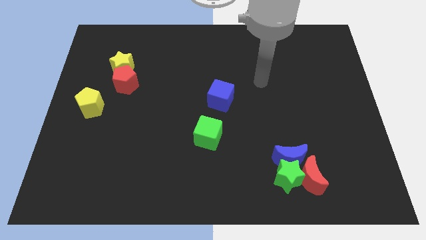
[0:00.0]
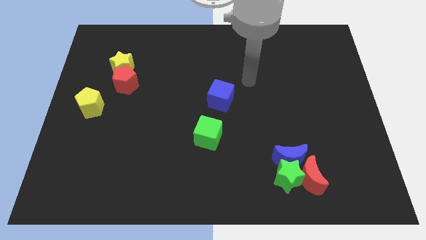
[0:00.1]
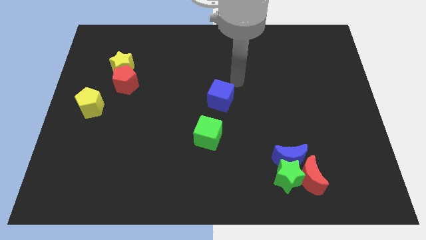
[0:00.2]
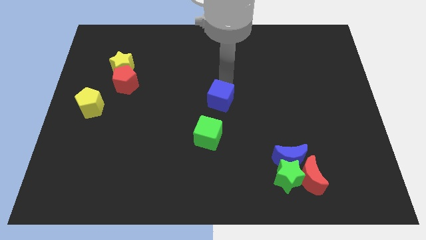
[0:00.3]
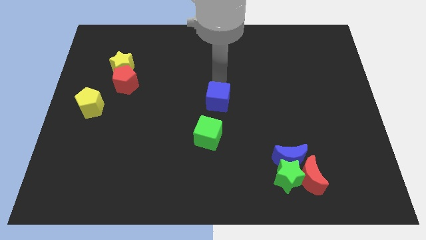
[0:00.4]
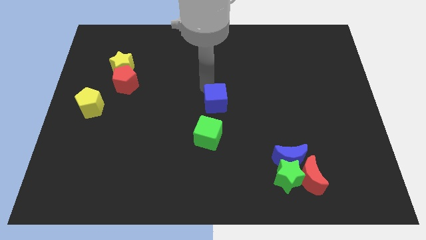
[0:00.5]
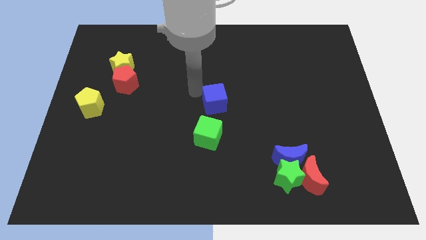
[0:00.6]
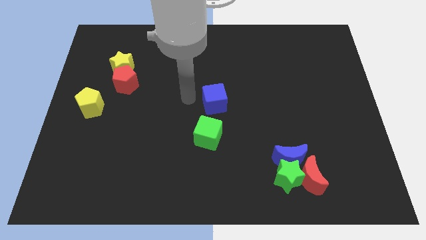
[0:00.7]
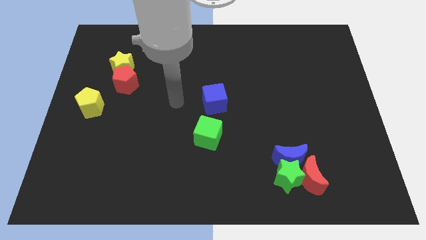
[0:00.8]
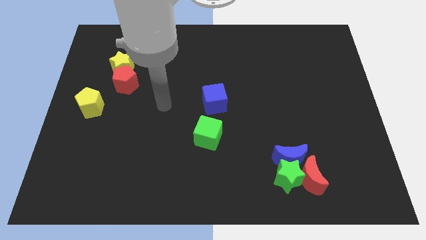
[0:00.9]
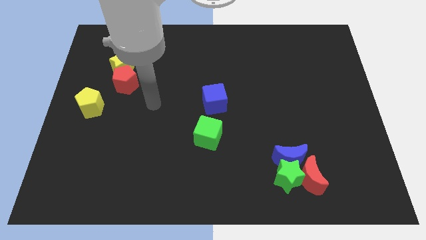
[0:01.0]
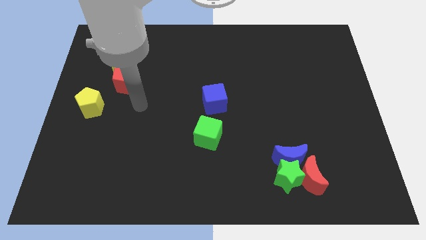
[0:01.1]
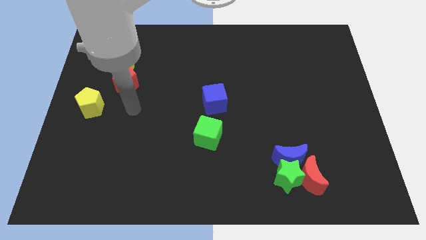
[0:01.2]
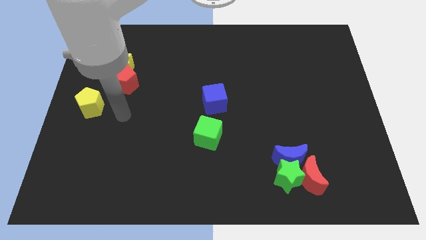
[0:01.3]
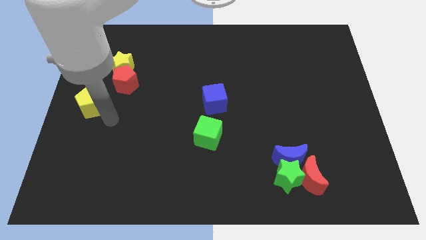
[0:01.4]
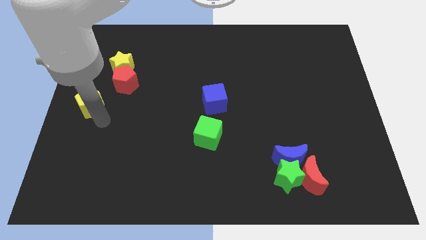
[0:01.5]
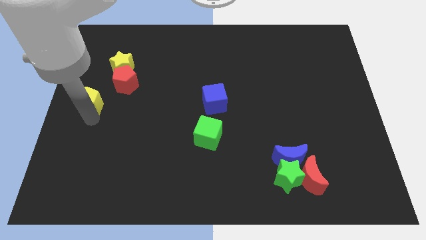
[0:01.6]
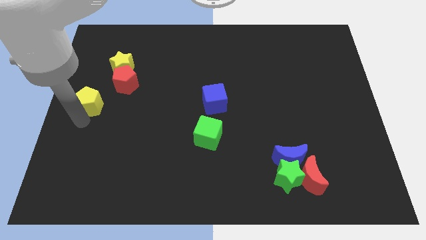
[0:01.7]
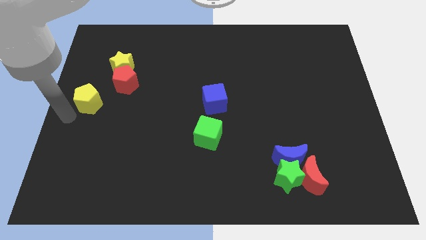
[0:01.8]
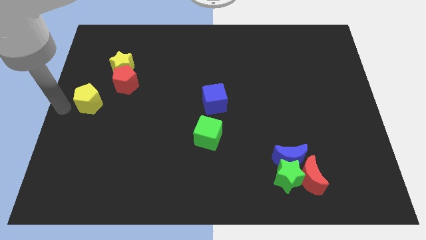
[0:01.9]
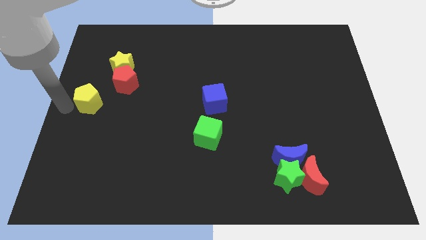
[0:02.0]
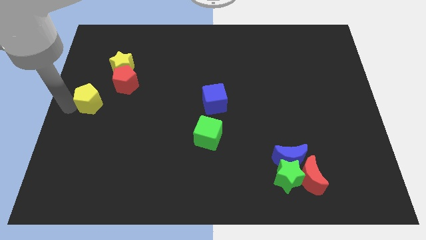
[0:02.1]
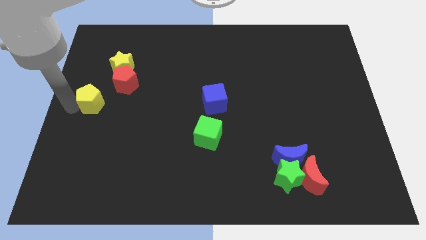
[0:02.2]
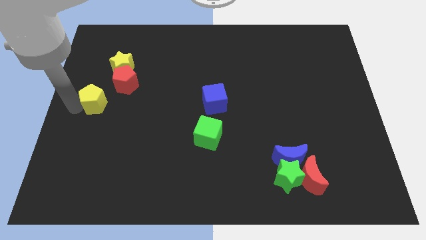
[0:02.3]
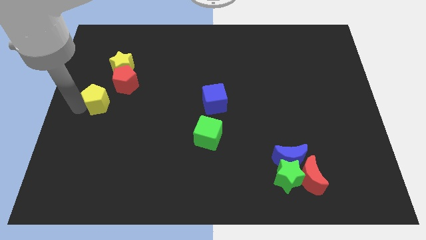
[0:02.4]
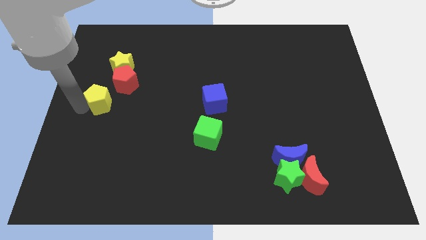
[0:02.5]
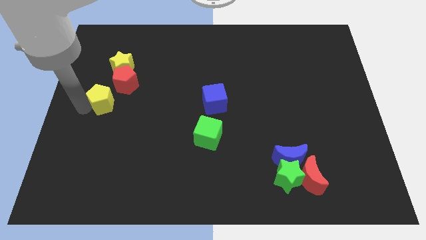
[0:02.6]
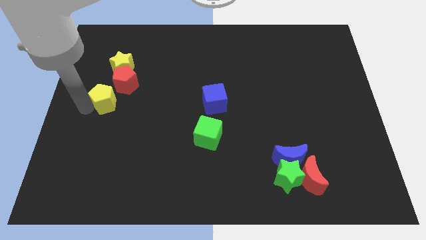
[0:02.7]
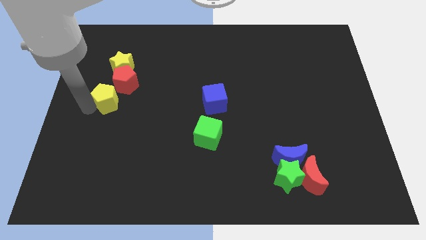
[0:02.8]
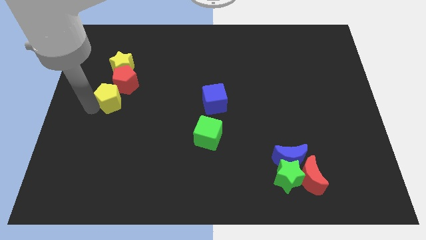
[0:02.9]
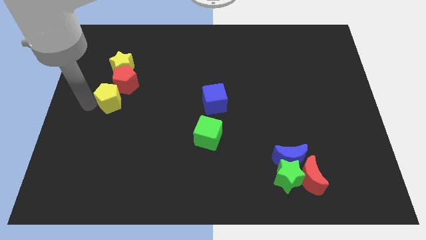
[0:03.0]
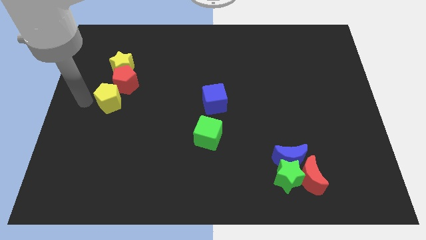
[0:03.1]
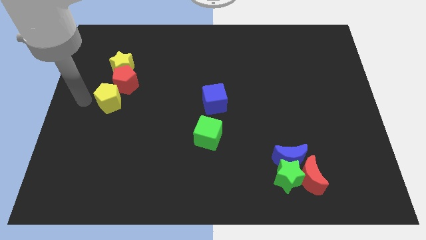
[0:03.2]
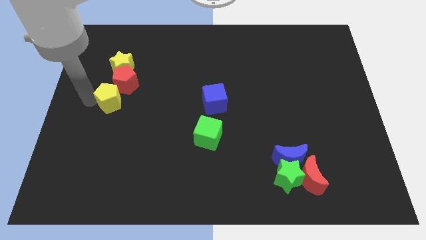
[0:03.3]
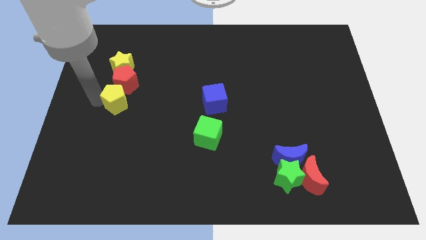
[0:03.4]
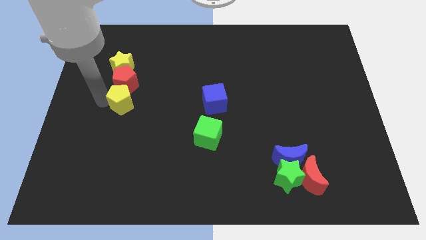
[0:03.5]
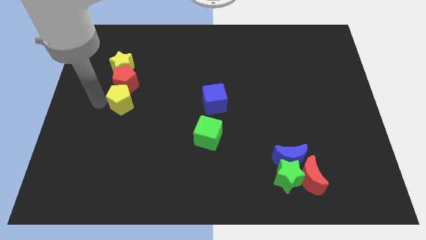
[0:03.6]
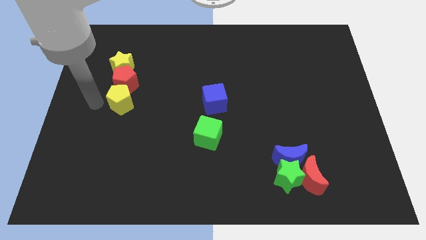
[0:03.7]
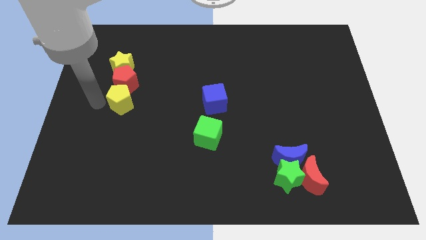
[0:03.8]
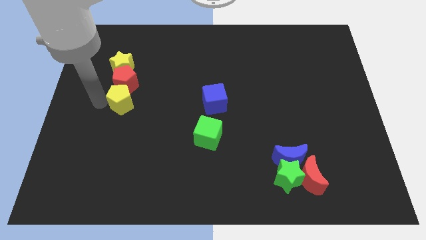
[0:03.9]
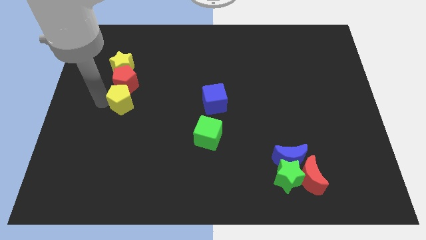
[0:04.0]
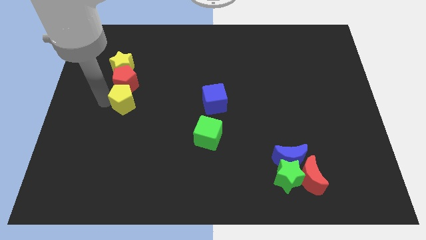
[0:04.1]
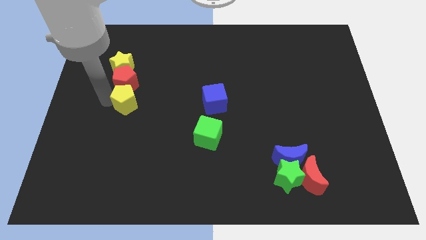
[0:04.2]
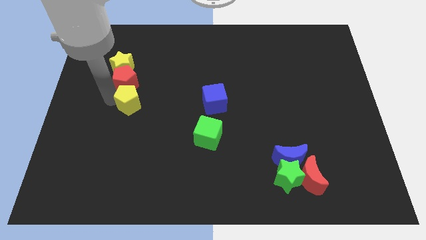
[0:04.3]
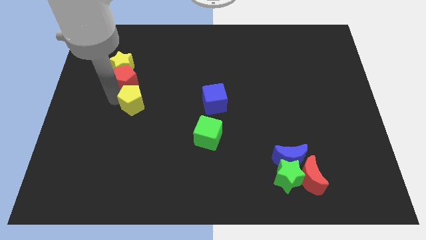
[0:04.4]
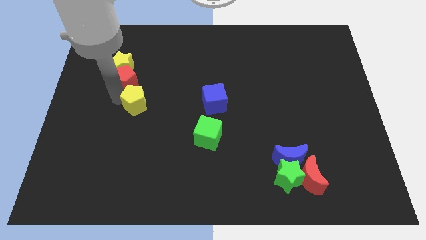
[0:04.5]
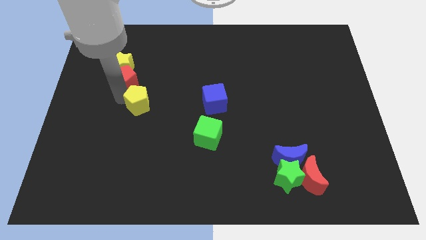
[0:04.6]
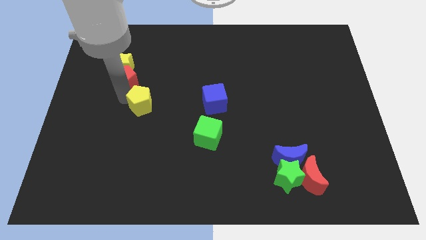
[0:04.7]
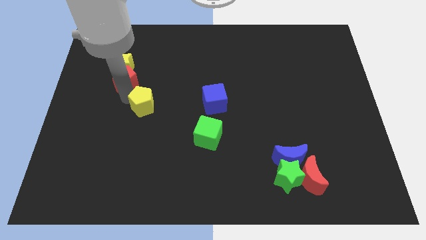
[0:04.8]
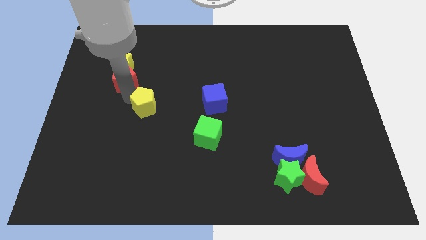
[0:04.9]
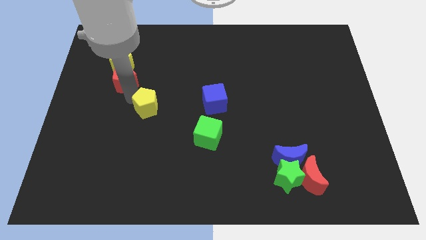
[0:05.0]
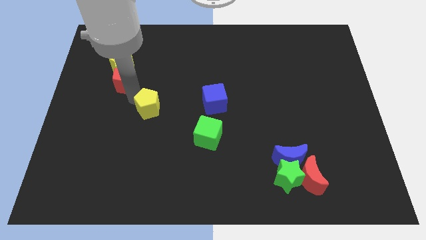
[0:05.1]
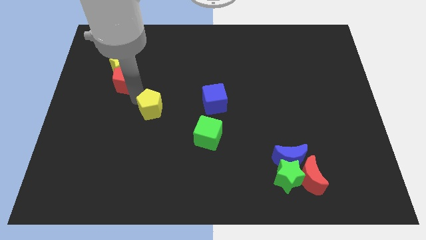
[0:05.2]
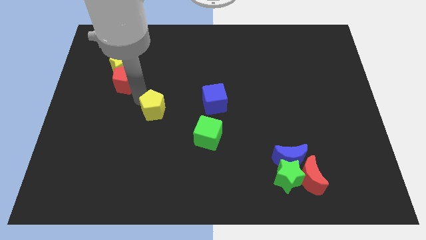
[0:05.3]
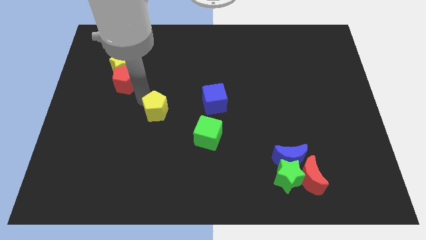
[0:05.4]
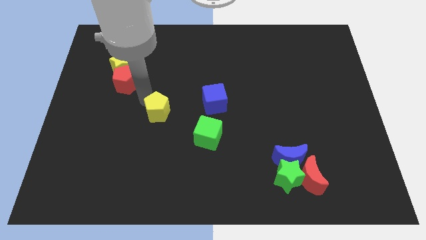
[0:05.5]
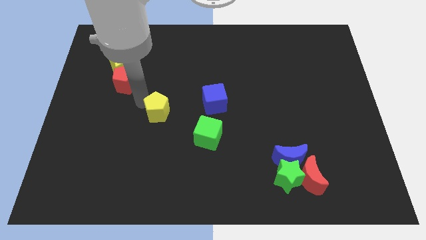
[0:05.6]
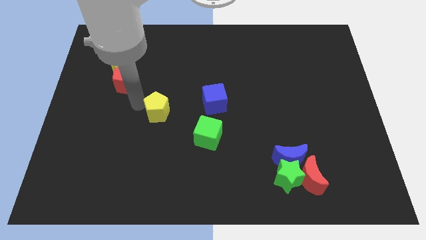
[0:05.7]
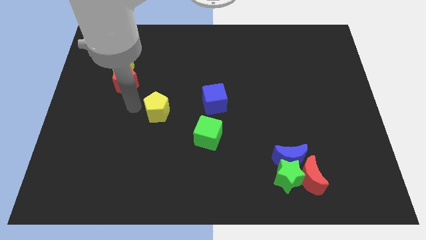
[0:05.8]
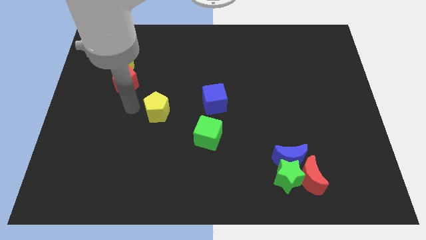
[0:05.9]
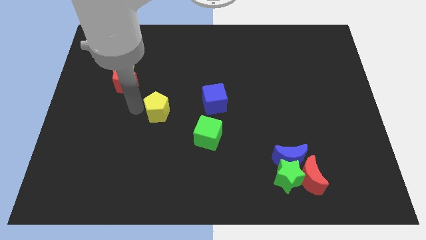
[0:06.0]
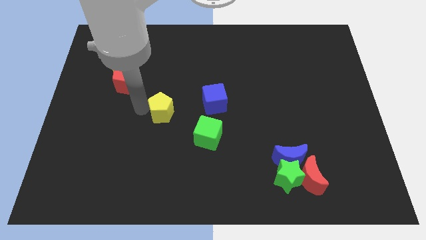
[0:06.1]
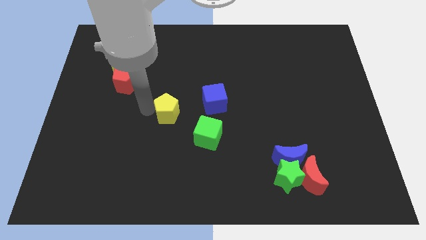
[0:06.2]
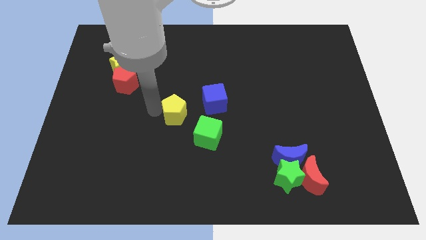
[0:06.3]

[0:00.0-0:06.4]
push the yellow pentagon diagonally down and to the left of the blue cube
